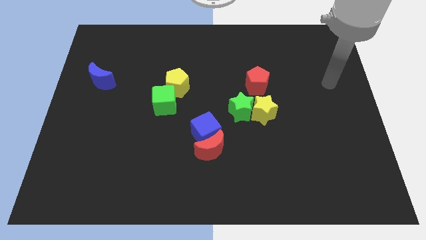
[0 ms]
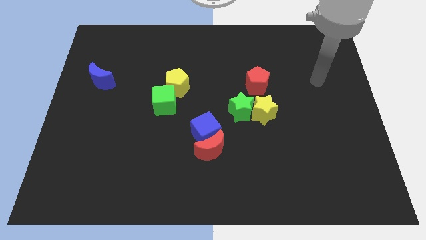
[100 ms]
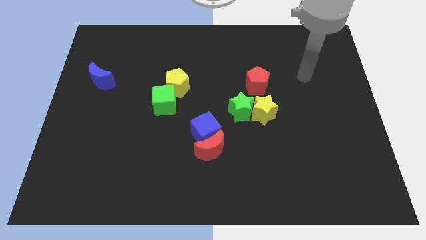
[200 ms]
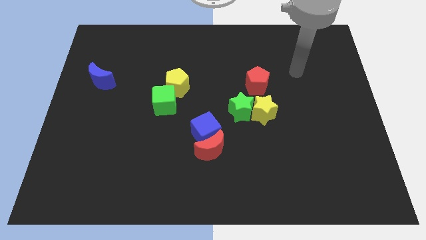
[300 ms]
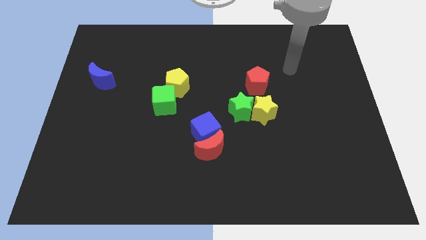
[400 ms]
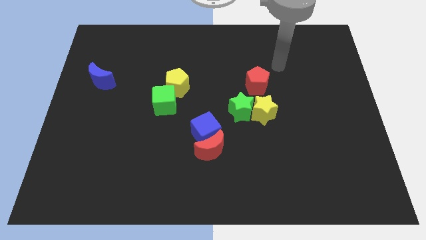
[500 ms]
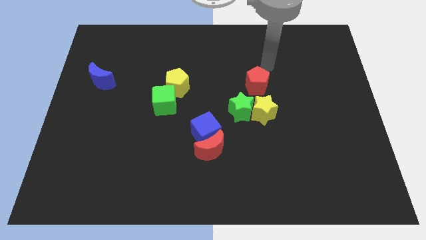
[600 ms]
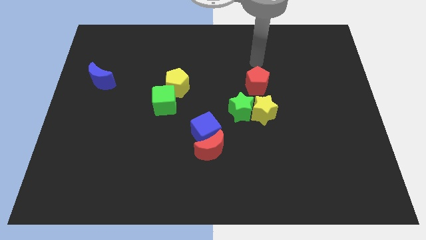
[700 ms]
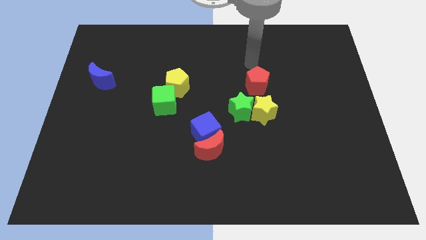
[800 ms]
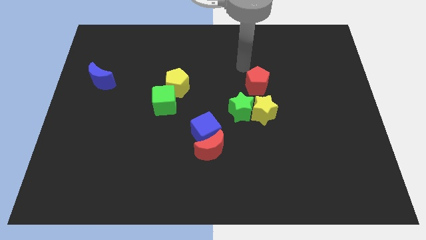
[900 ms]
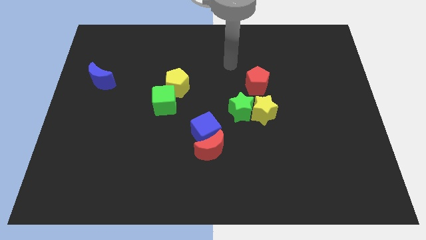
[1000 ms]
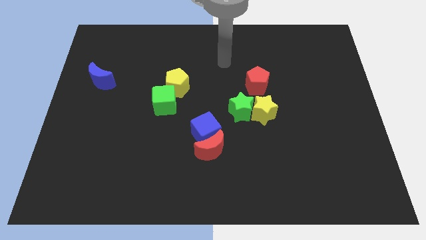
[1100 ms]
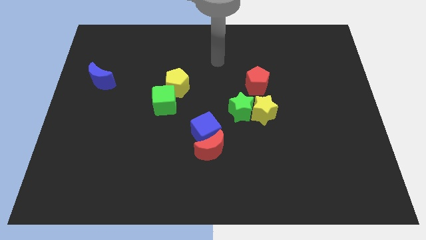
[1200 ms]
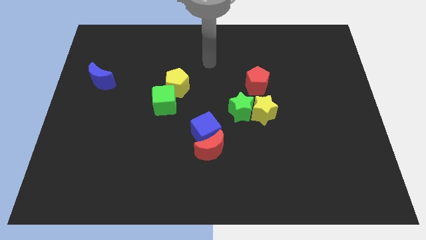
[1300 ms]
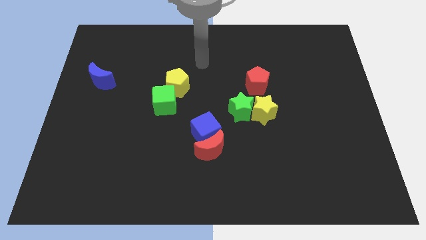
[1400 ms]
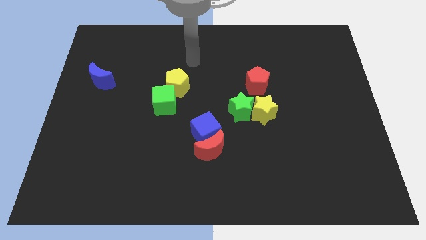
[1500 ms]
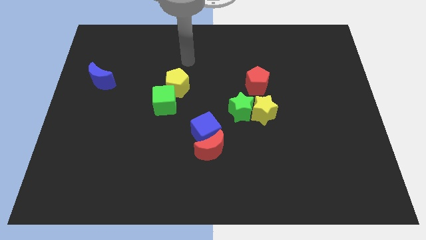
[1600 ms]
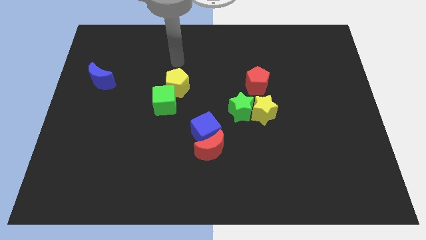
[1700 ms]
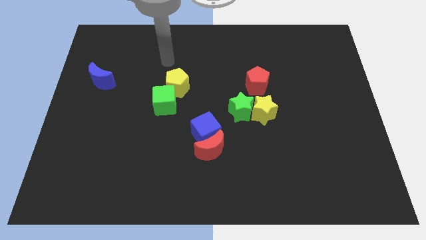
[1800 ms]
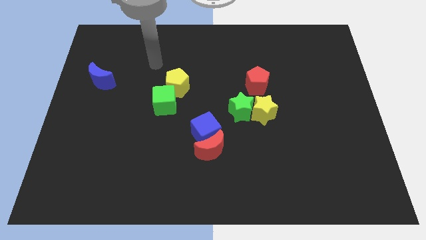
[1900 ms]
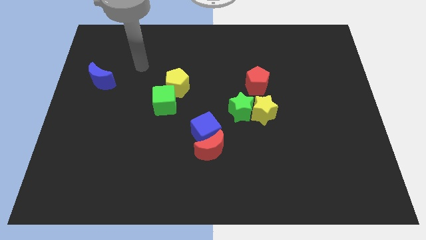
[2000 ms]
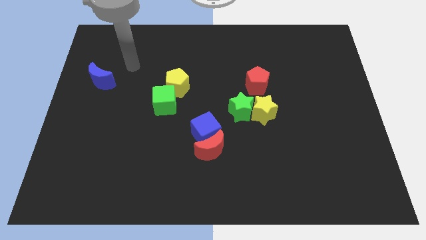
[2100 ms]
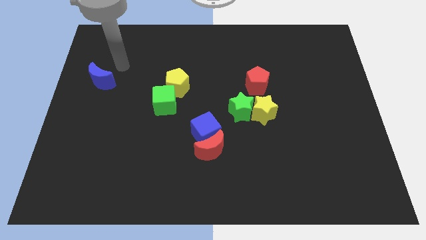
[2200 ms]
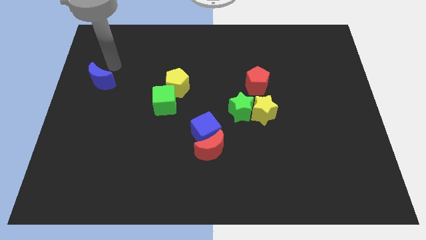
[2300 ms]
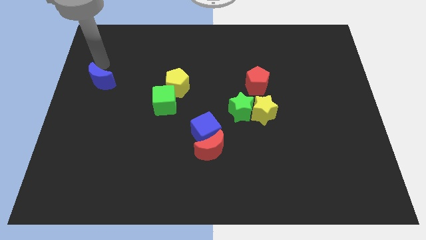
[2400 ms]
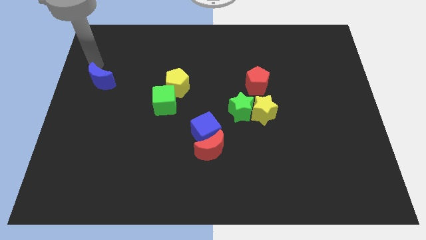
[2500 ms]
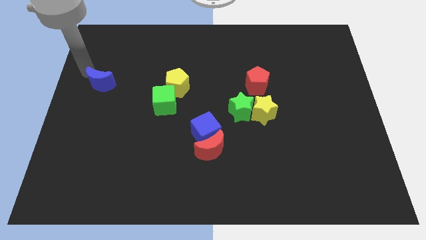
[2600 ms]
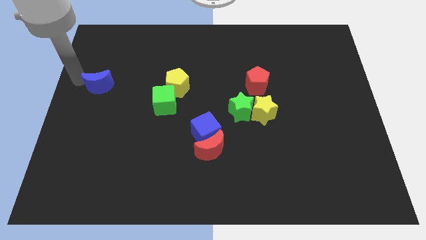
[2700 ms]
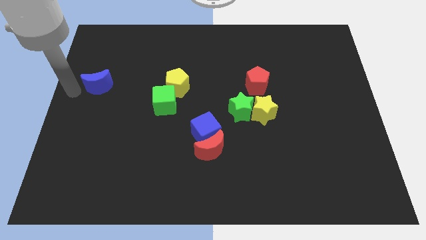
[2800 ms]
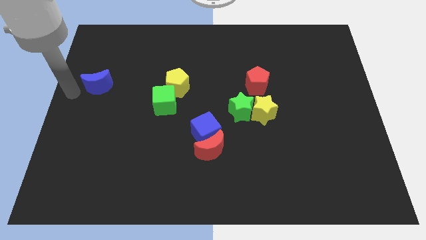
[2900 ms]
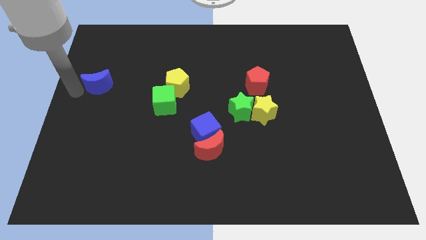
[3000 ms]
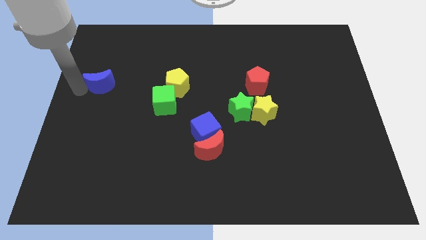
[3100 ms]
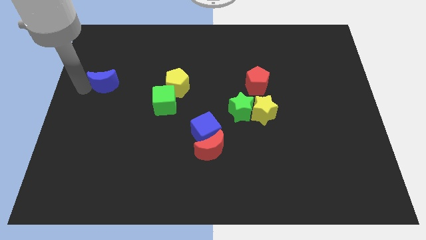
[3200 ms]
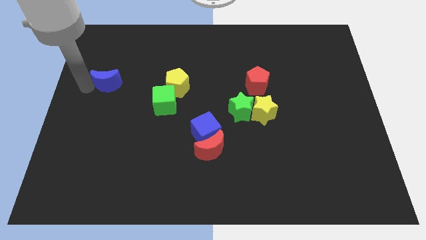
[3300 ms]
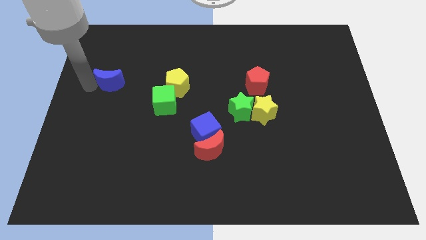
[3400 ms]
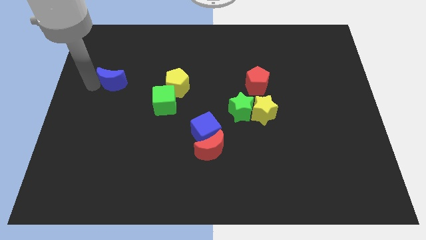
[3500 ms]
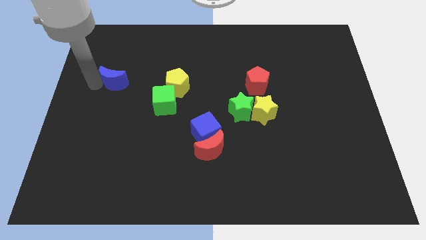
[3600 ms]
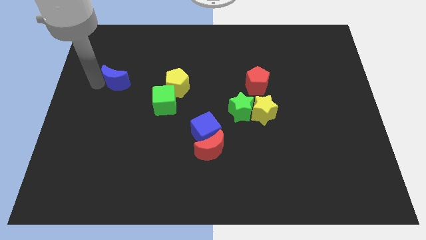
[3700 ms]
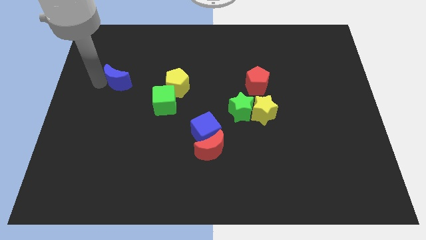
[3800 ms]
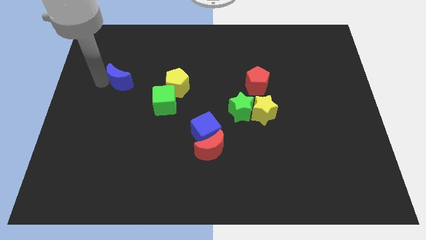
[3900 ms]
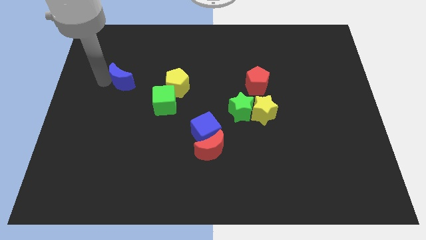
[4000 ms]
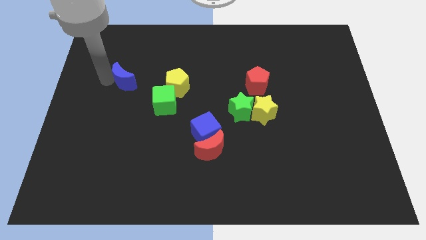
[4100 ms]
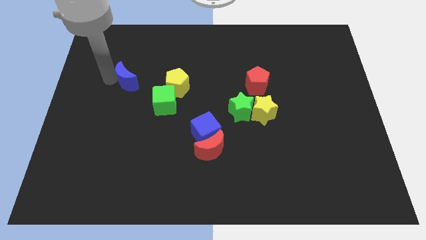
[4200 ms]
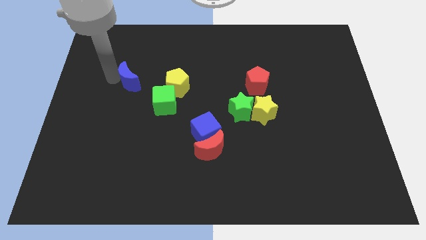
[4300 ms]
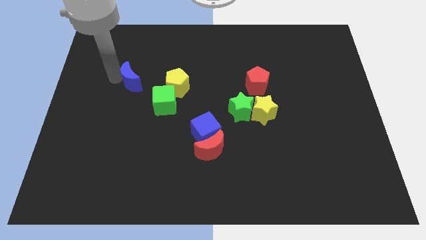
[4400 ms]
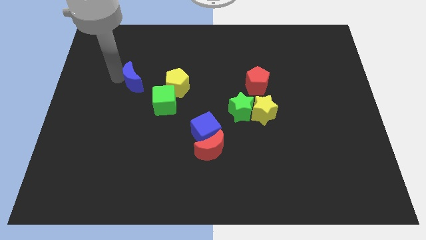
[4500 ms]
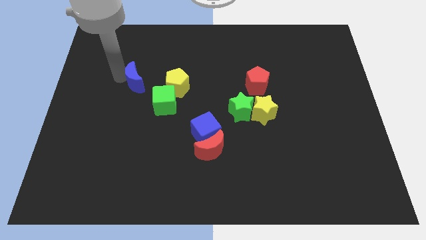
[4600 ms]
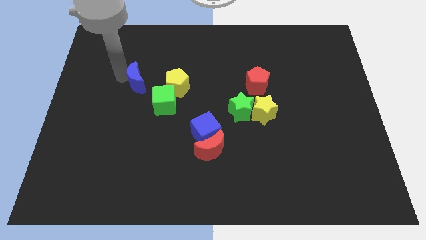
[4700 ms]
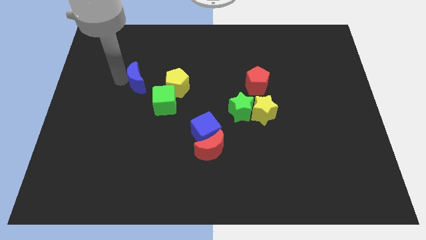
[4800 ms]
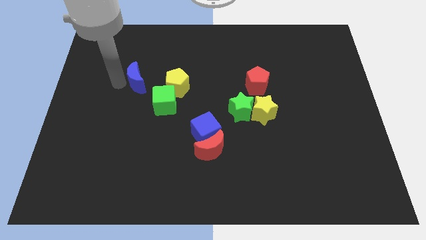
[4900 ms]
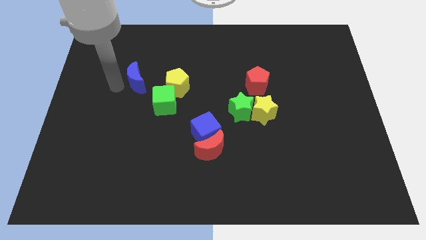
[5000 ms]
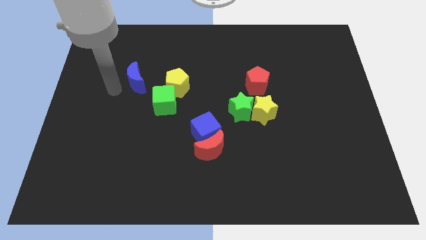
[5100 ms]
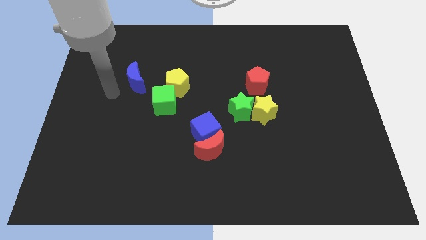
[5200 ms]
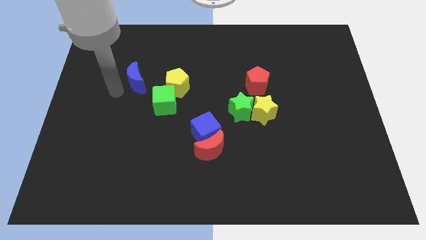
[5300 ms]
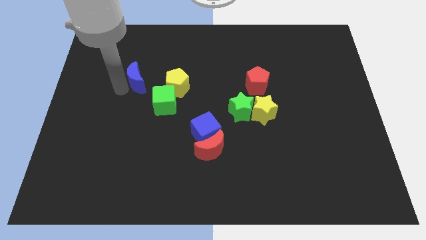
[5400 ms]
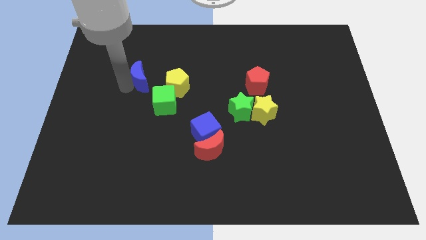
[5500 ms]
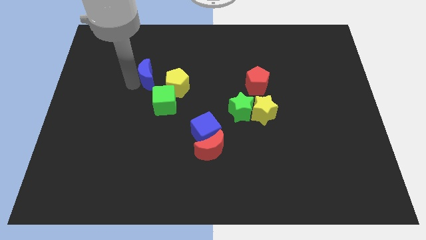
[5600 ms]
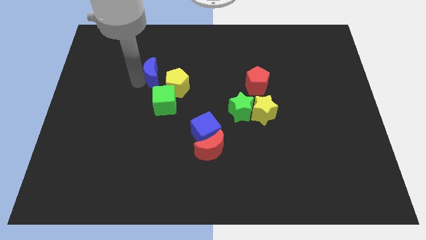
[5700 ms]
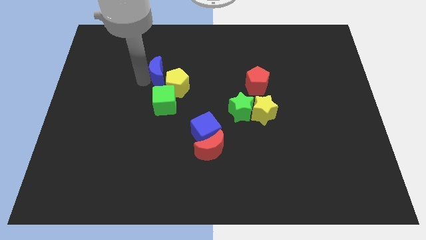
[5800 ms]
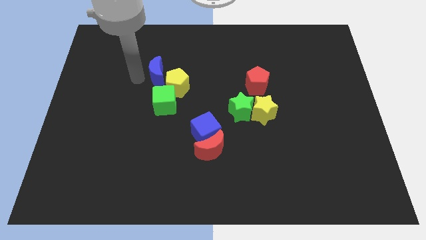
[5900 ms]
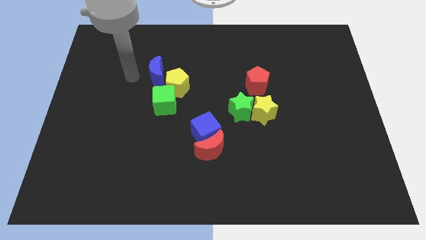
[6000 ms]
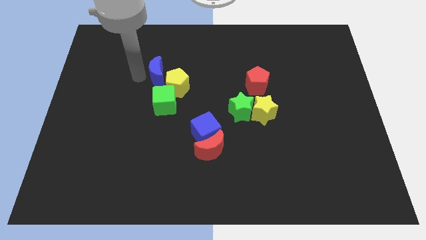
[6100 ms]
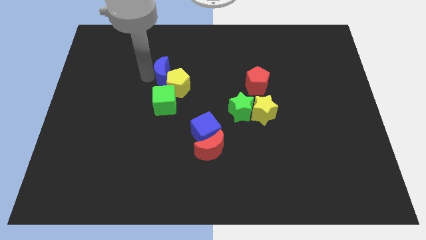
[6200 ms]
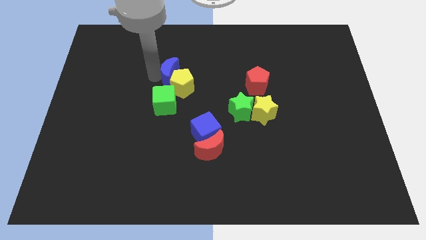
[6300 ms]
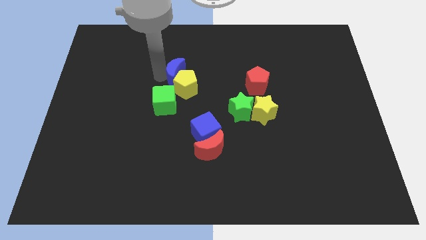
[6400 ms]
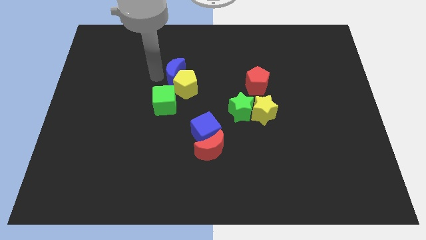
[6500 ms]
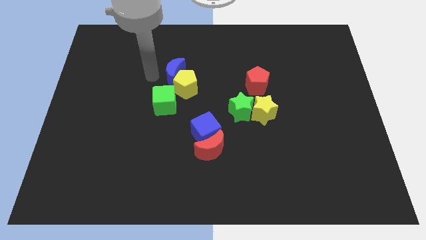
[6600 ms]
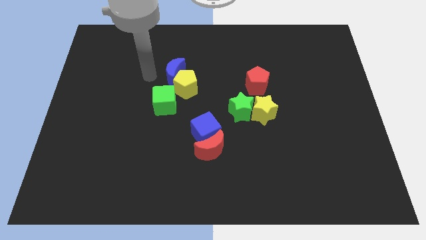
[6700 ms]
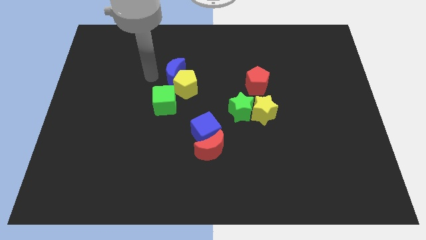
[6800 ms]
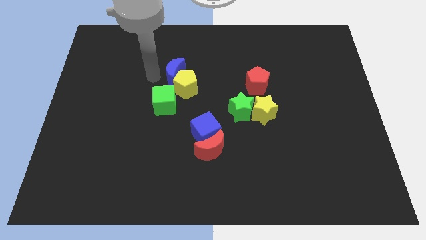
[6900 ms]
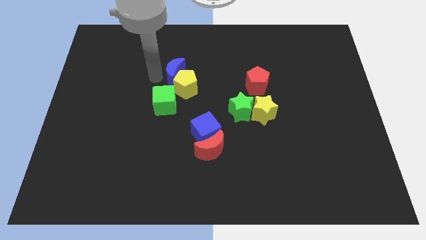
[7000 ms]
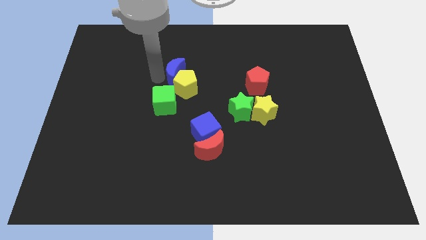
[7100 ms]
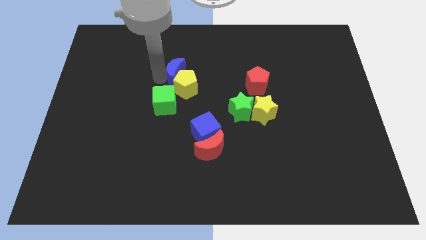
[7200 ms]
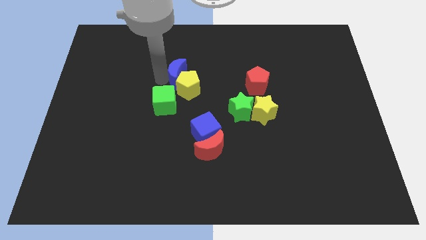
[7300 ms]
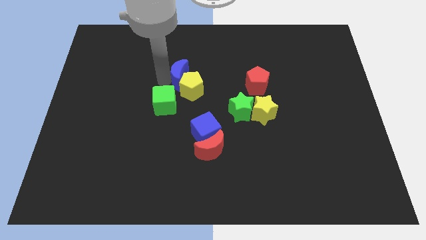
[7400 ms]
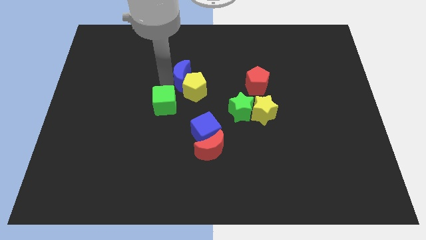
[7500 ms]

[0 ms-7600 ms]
move the blue moon to the right

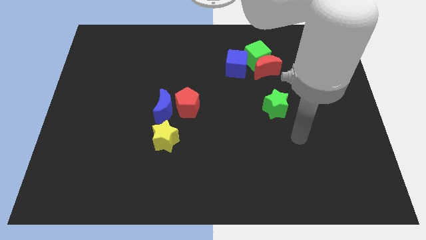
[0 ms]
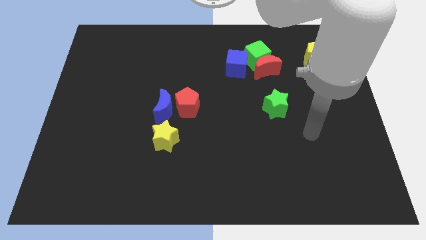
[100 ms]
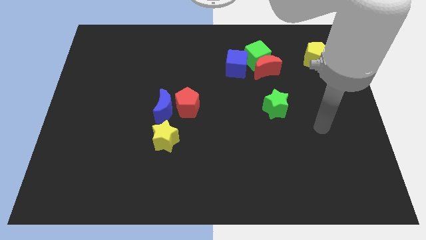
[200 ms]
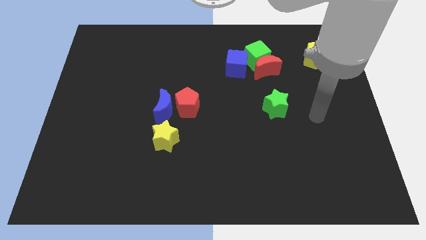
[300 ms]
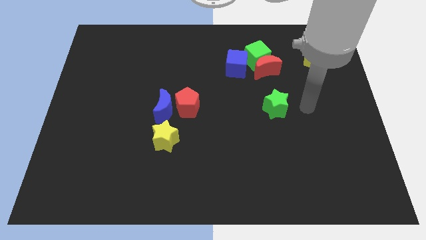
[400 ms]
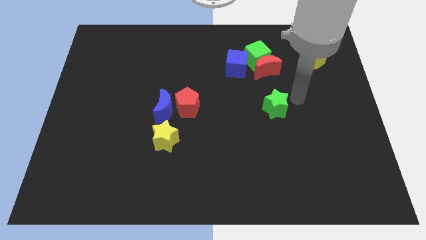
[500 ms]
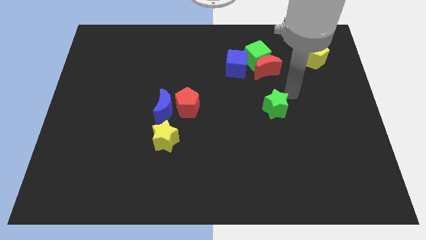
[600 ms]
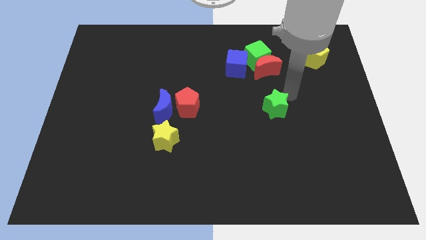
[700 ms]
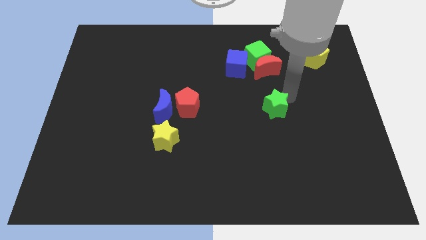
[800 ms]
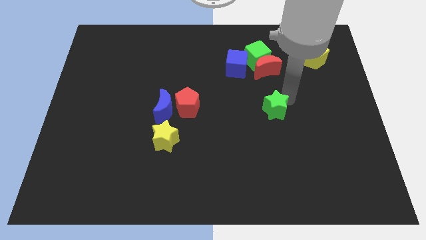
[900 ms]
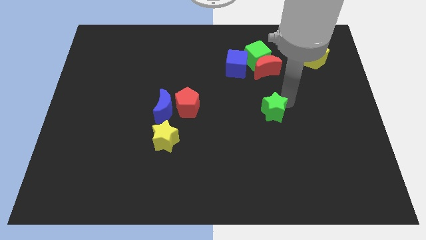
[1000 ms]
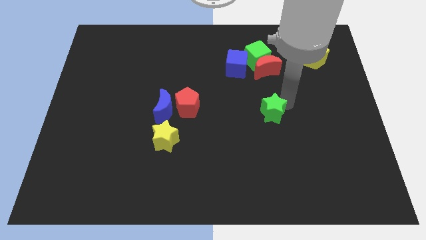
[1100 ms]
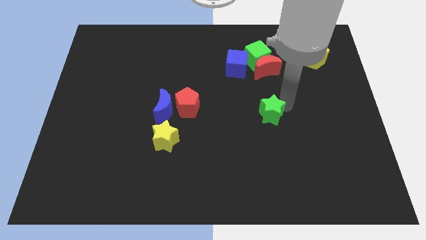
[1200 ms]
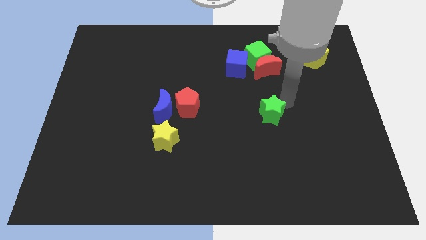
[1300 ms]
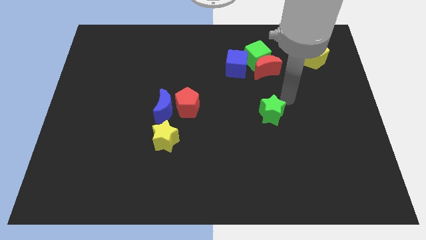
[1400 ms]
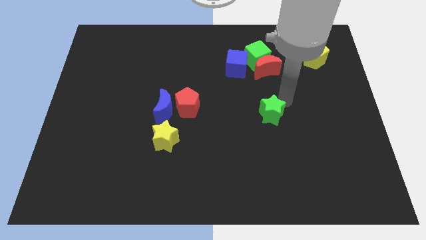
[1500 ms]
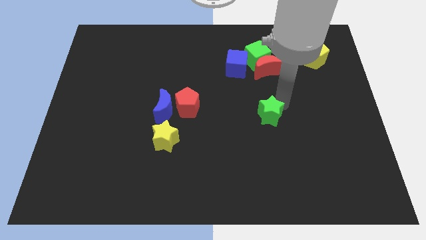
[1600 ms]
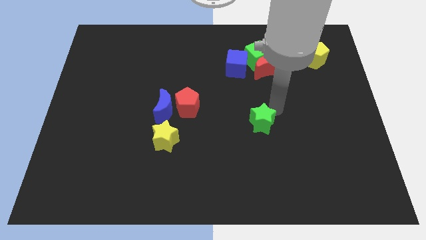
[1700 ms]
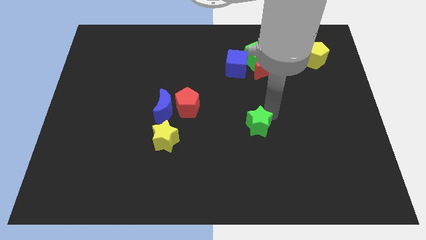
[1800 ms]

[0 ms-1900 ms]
push the green star slightly down and then to the left
